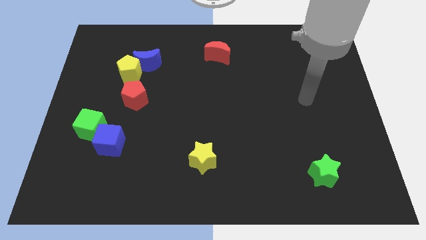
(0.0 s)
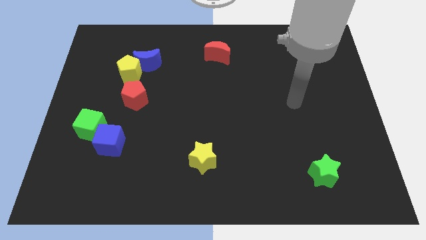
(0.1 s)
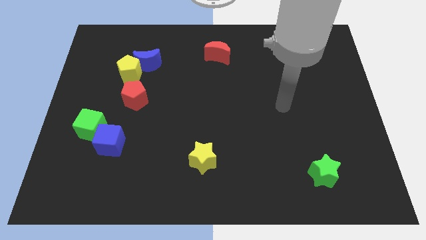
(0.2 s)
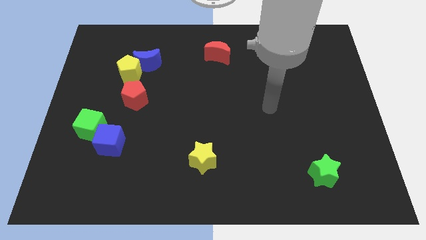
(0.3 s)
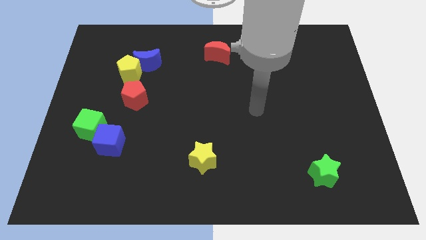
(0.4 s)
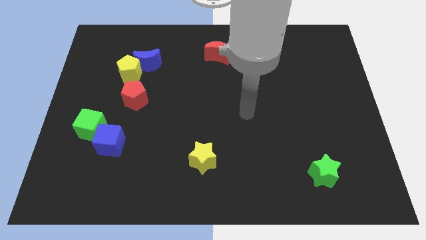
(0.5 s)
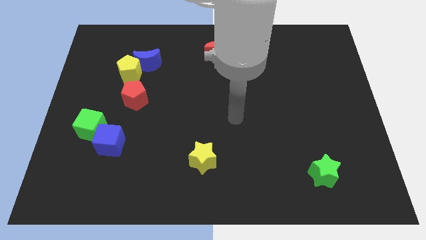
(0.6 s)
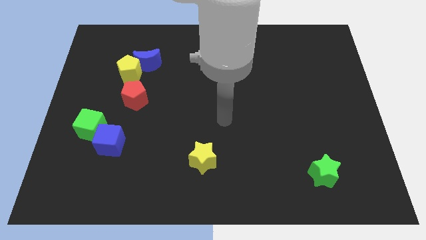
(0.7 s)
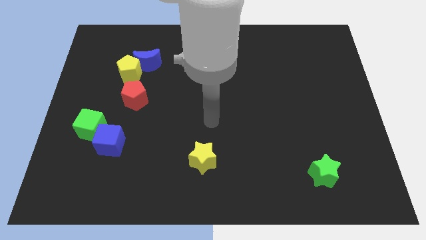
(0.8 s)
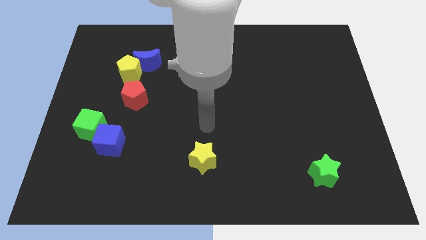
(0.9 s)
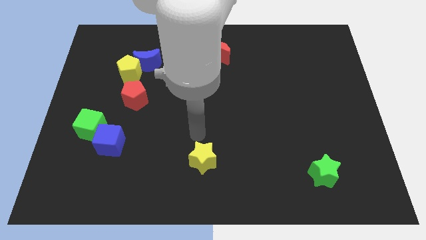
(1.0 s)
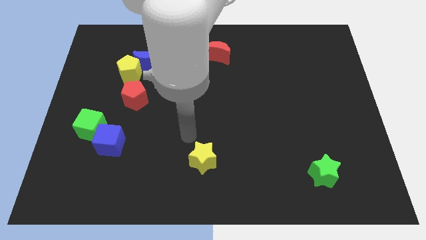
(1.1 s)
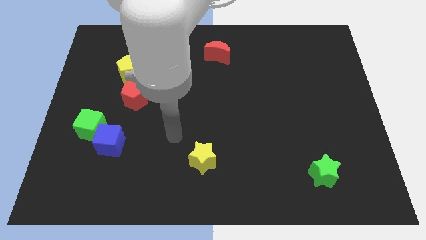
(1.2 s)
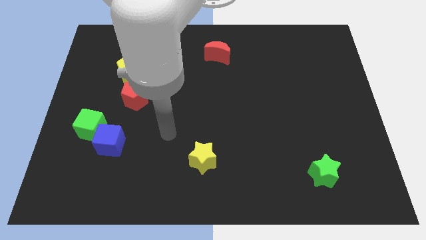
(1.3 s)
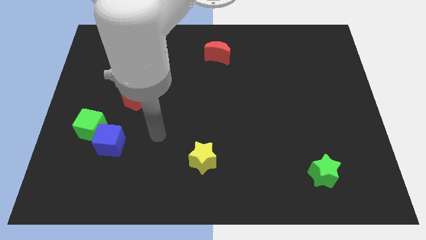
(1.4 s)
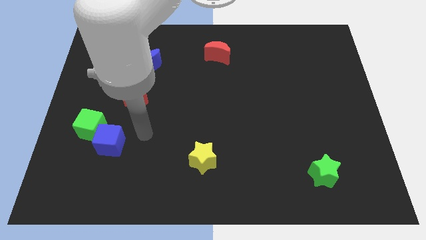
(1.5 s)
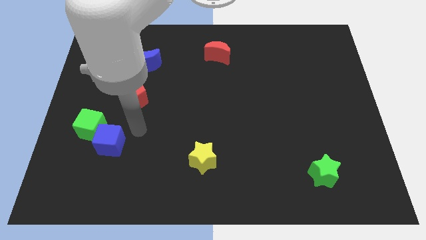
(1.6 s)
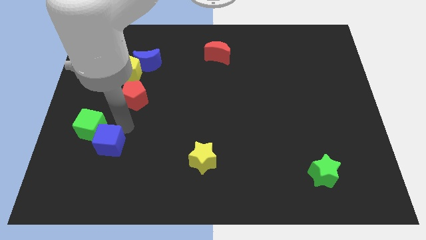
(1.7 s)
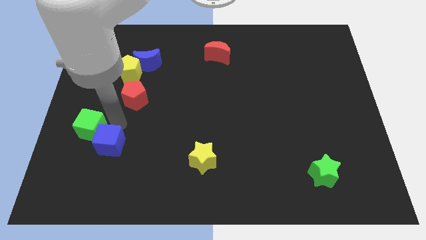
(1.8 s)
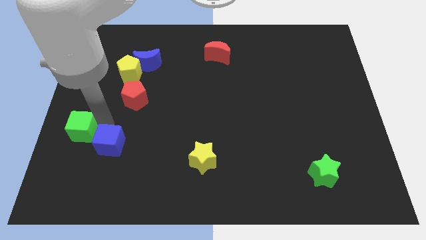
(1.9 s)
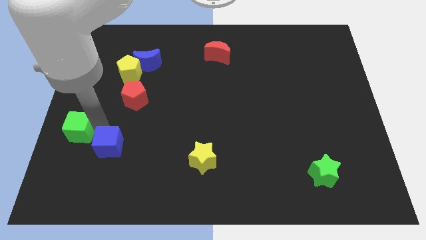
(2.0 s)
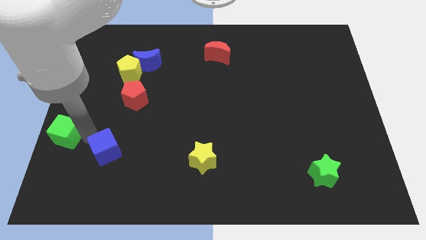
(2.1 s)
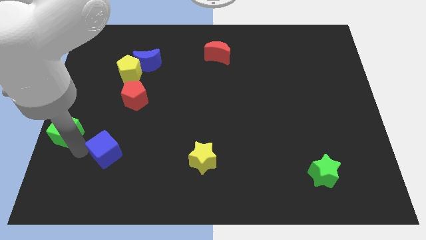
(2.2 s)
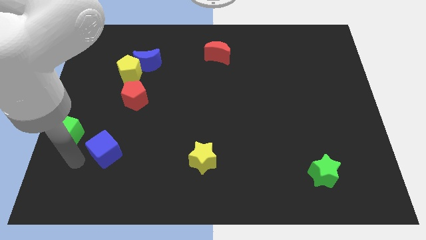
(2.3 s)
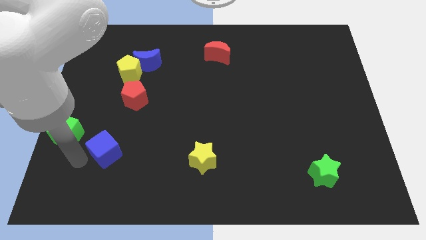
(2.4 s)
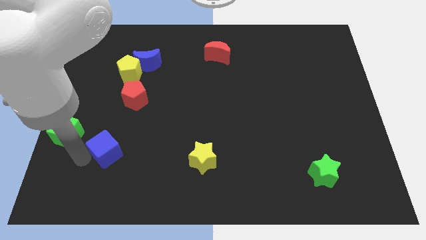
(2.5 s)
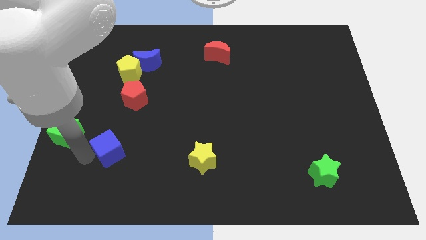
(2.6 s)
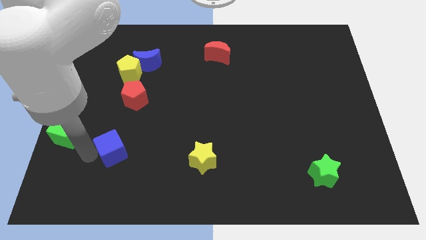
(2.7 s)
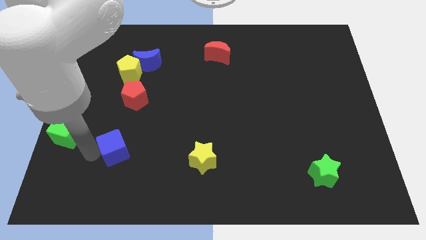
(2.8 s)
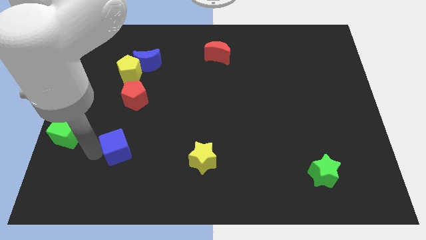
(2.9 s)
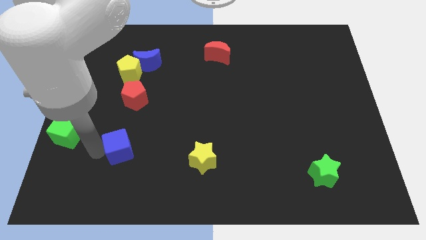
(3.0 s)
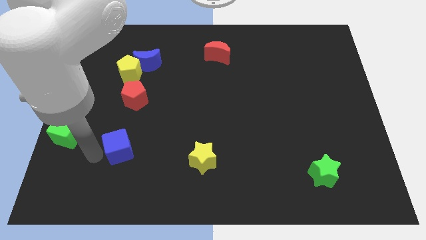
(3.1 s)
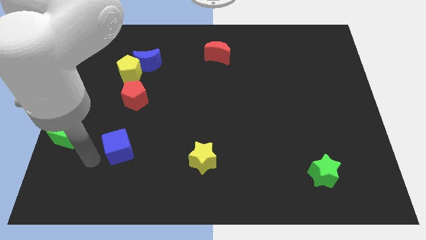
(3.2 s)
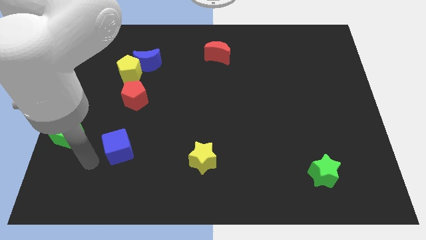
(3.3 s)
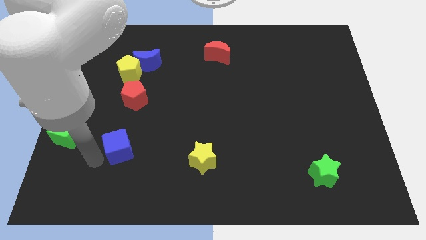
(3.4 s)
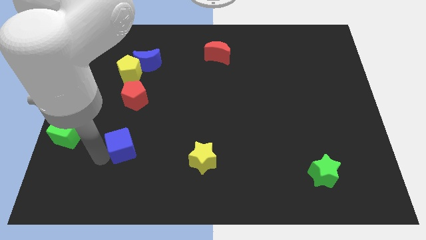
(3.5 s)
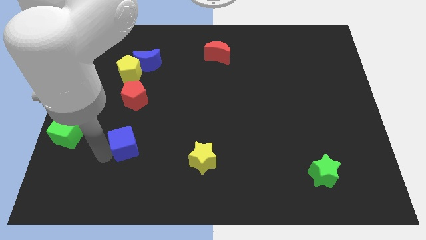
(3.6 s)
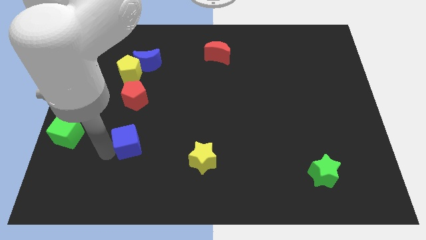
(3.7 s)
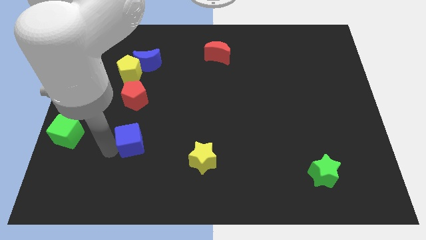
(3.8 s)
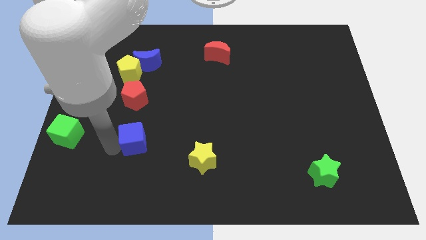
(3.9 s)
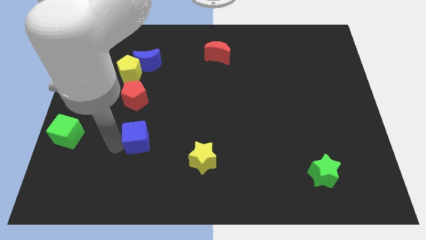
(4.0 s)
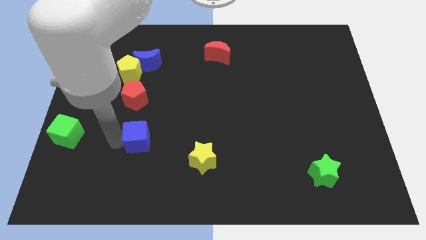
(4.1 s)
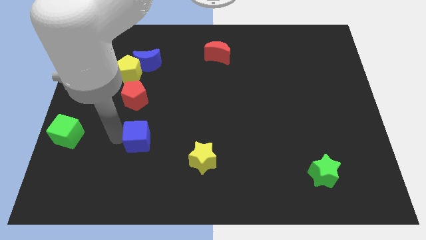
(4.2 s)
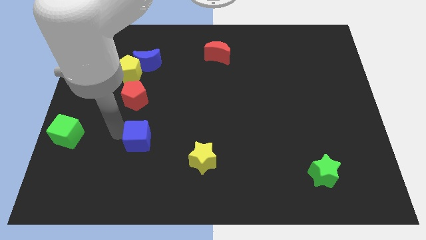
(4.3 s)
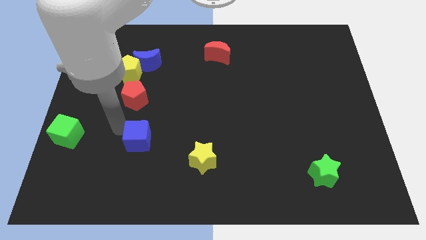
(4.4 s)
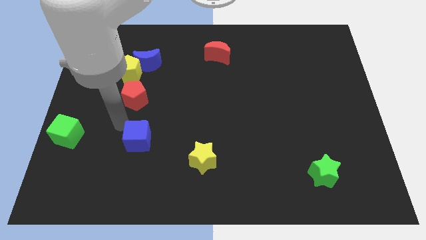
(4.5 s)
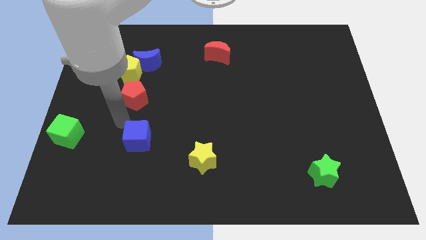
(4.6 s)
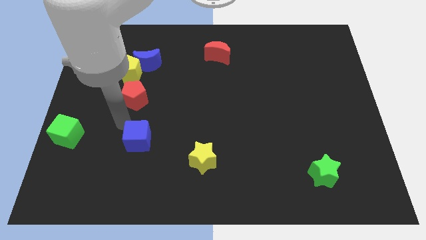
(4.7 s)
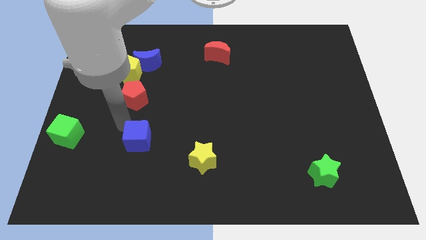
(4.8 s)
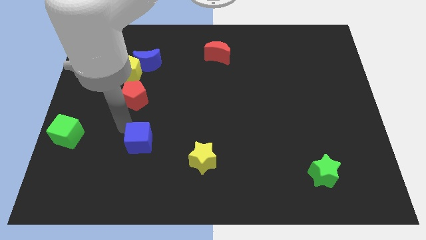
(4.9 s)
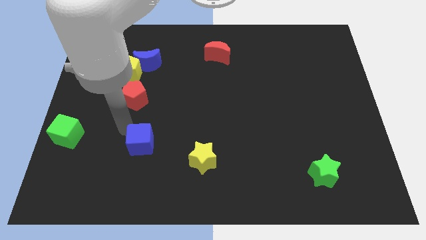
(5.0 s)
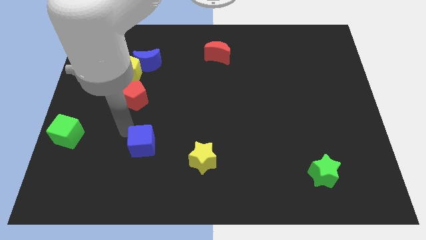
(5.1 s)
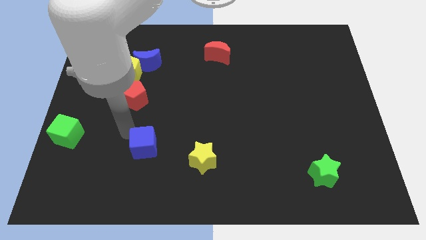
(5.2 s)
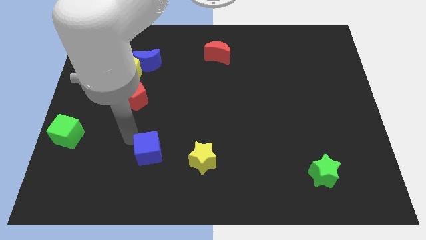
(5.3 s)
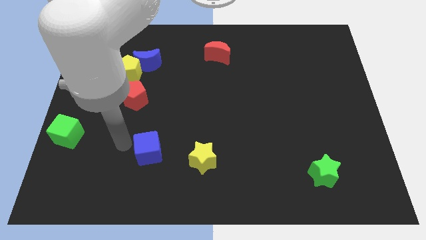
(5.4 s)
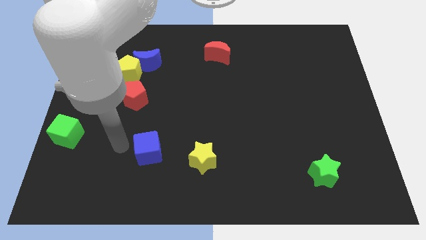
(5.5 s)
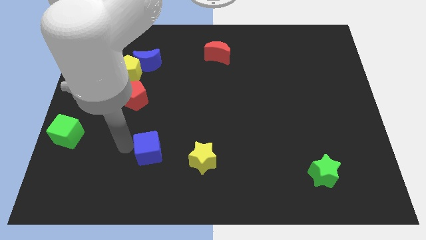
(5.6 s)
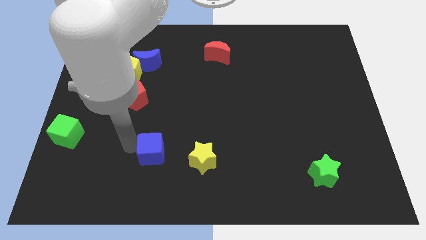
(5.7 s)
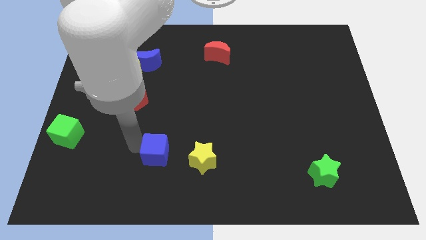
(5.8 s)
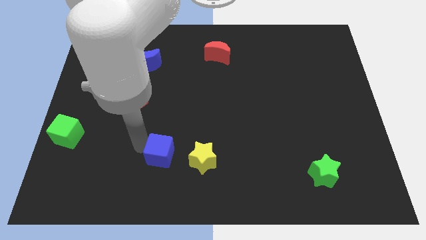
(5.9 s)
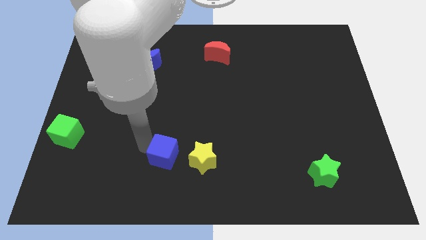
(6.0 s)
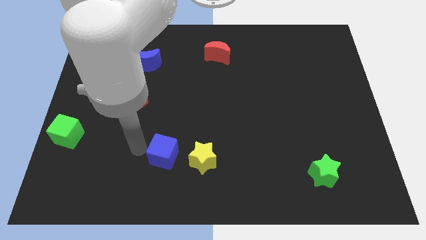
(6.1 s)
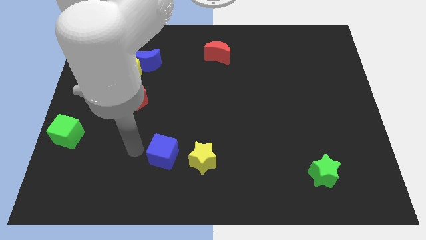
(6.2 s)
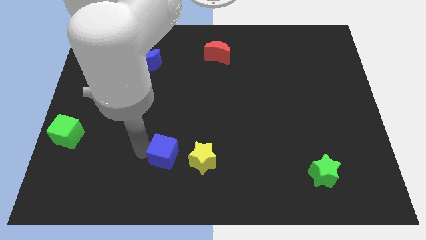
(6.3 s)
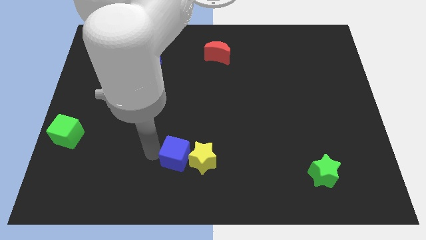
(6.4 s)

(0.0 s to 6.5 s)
put the blue cube towards the yellow star
